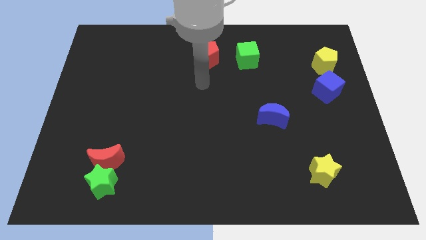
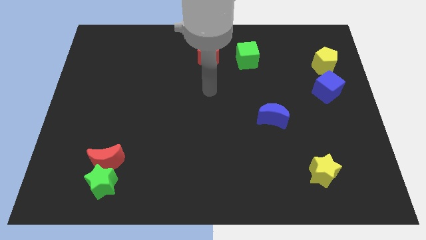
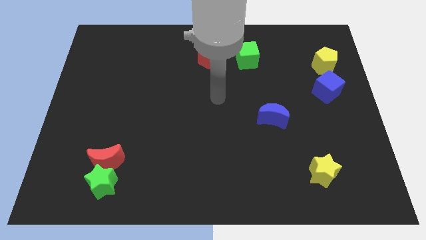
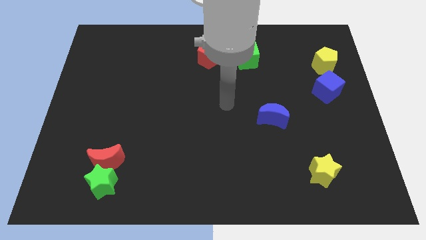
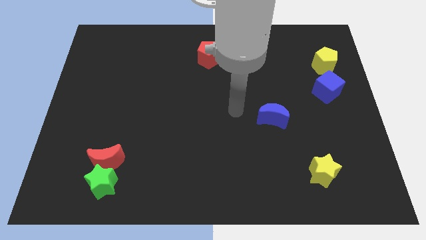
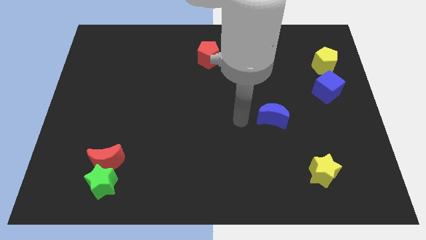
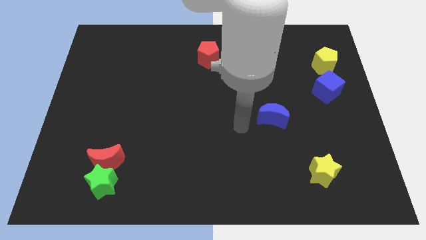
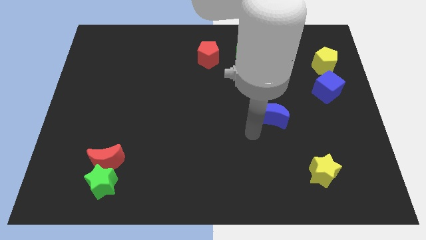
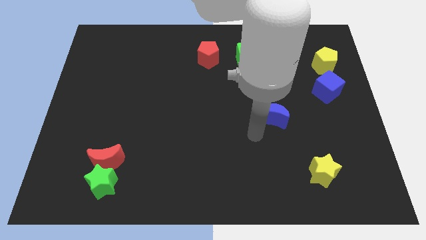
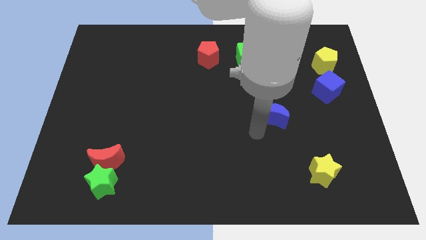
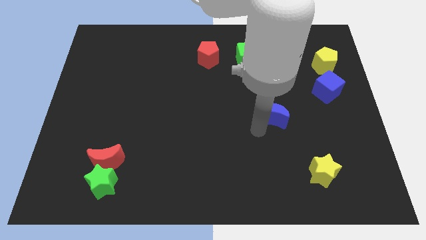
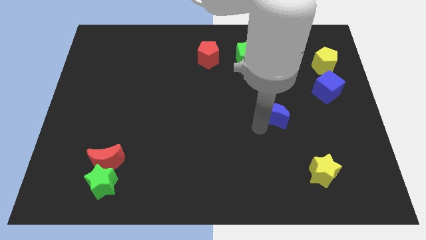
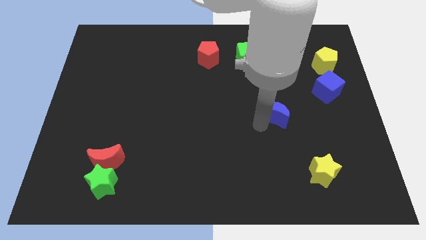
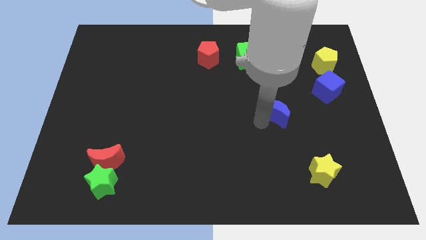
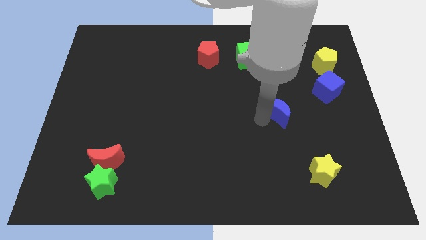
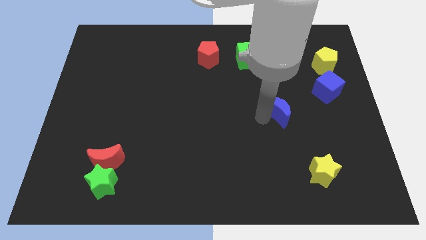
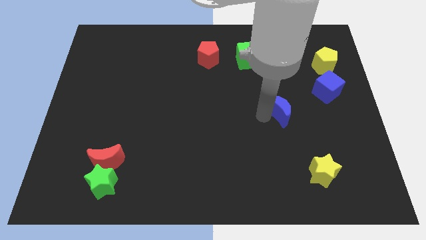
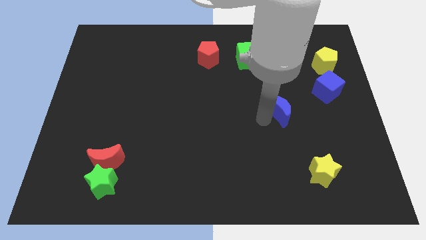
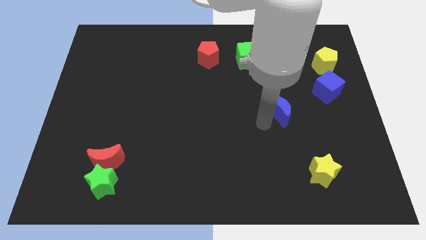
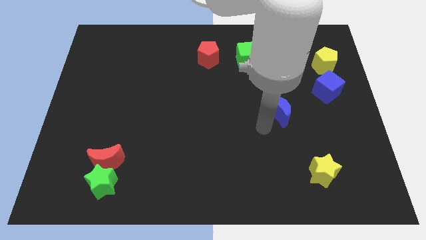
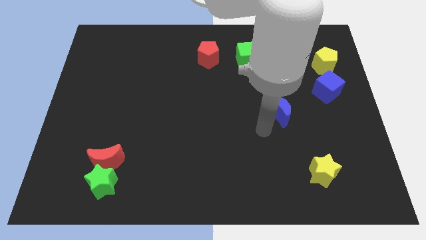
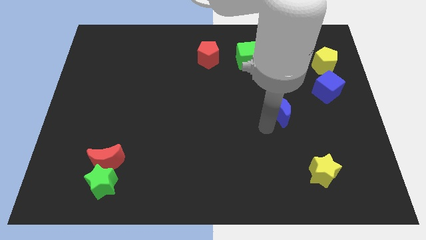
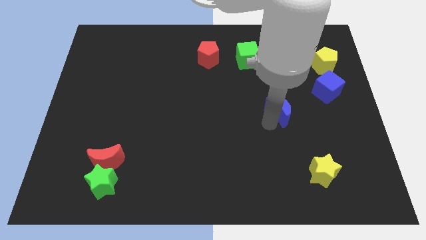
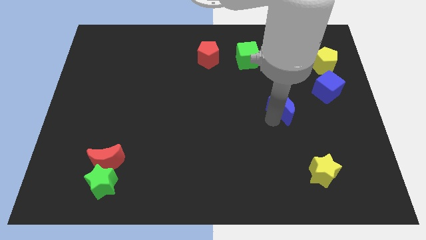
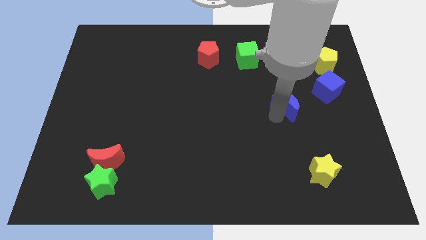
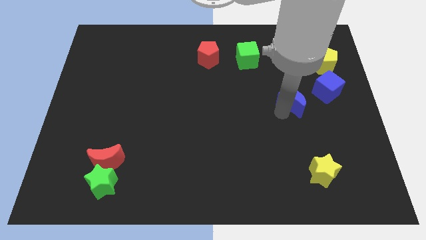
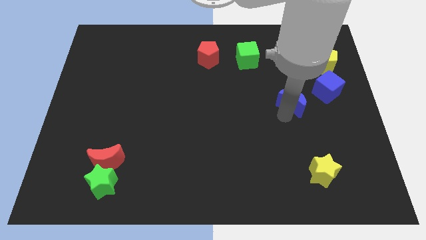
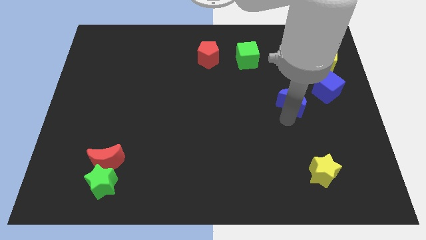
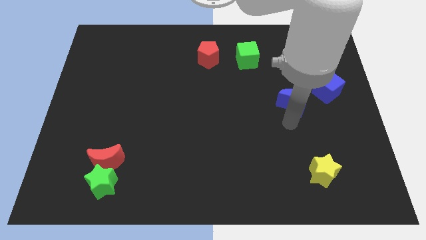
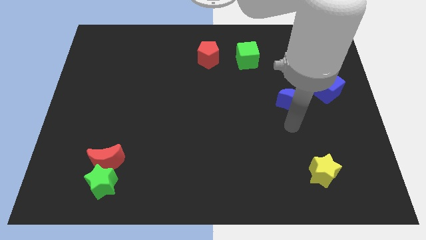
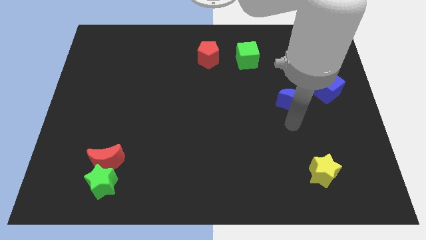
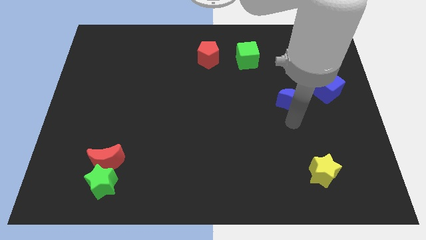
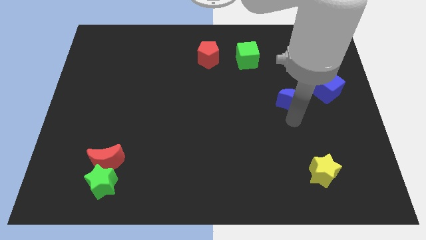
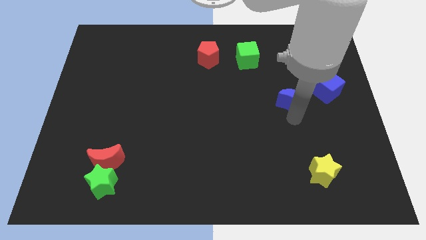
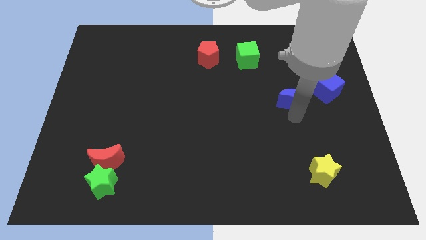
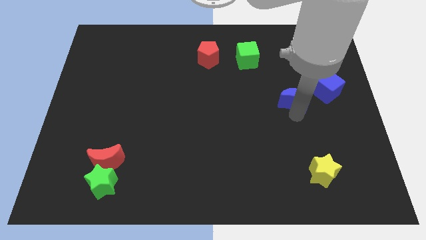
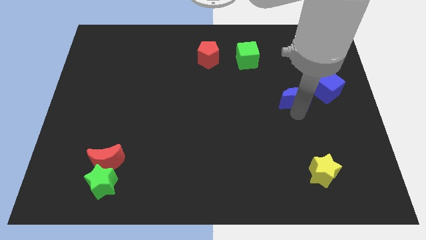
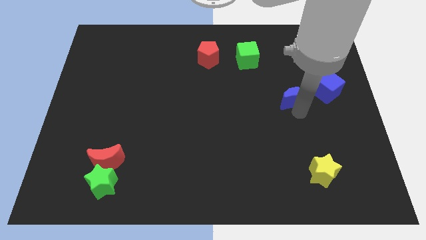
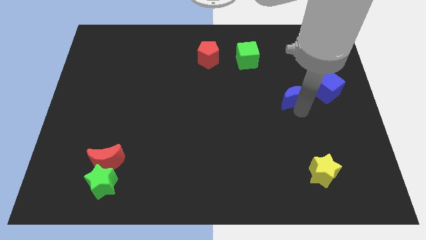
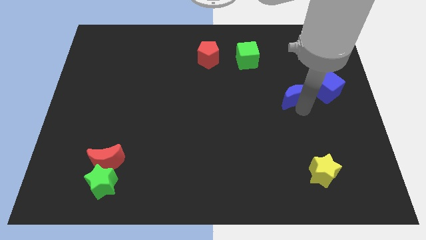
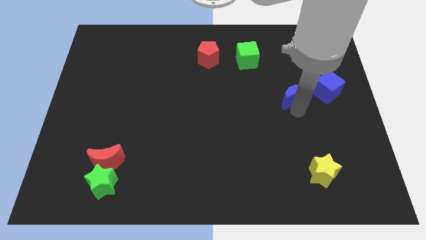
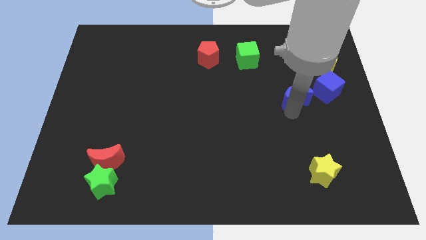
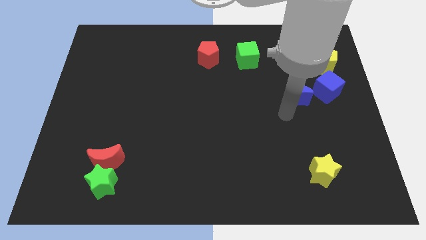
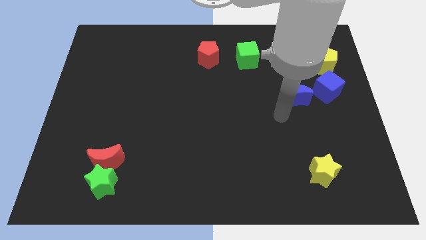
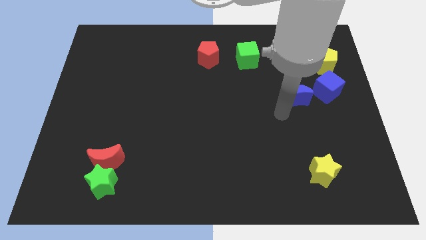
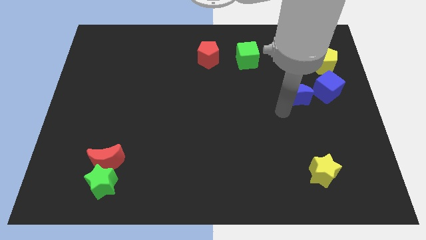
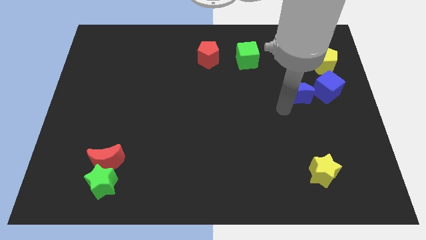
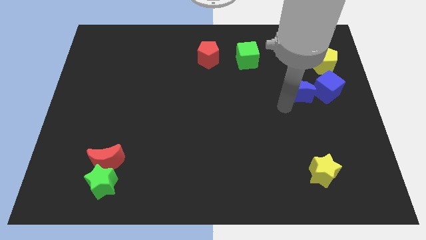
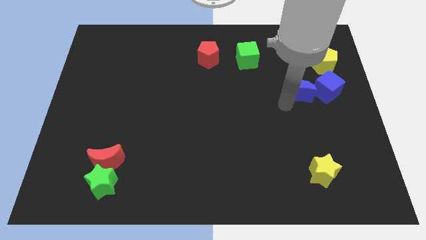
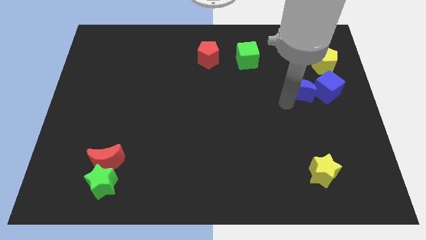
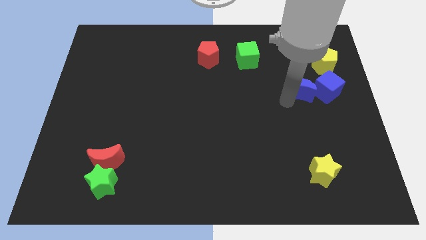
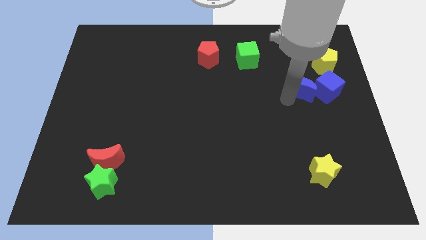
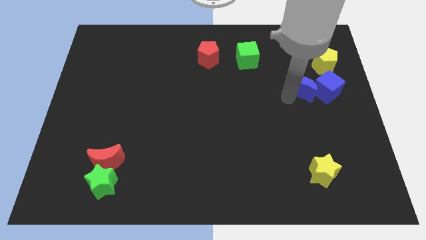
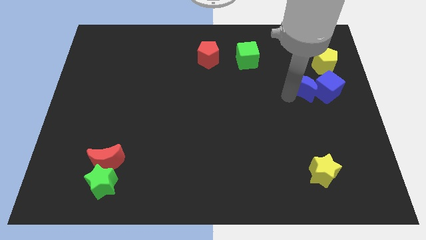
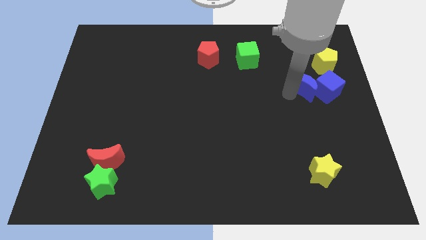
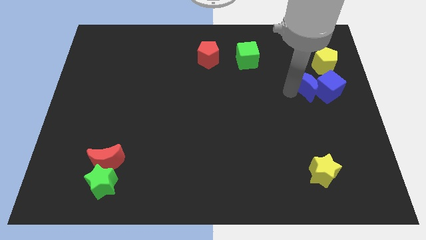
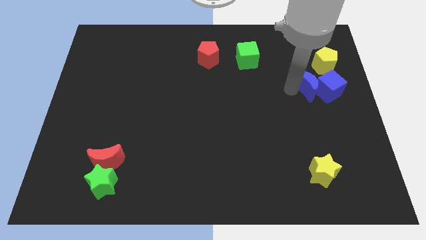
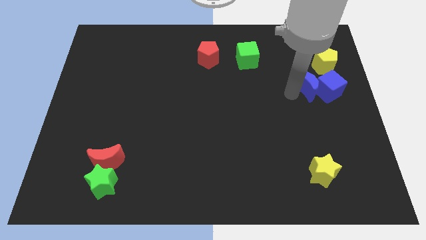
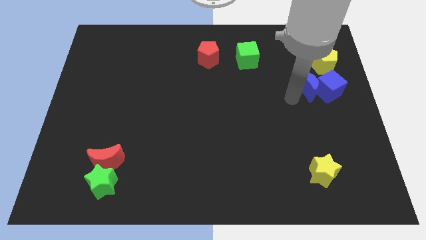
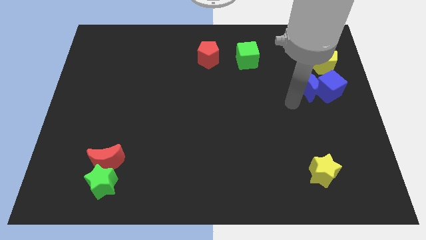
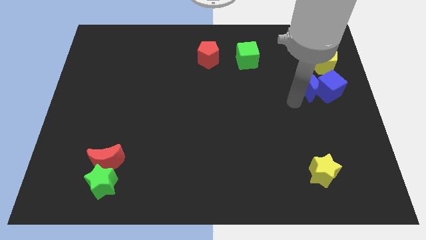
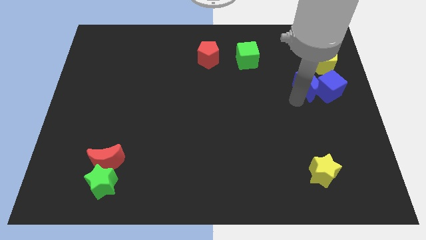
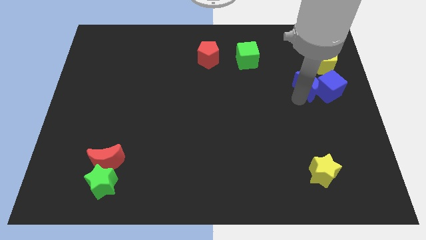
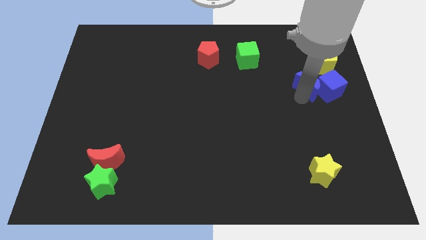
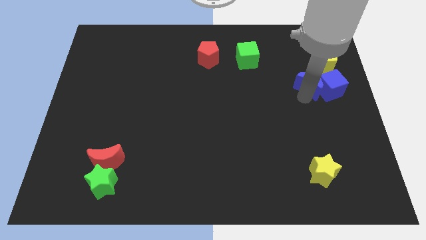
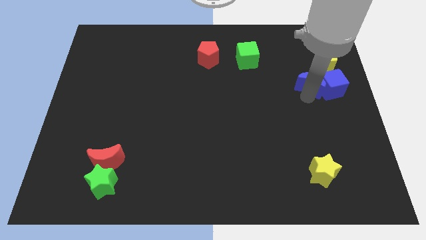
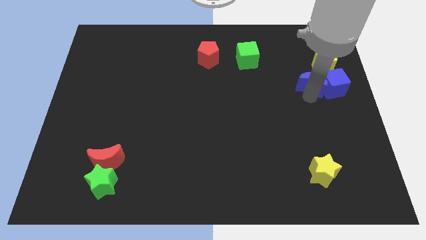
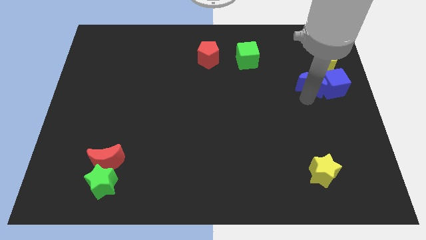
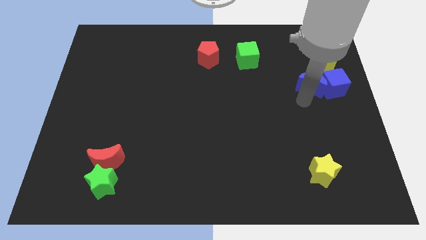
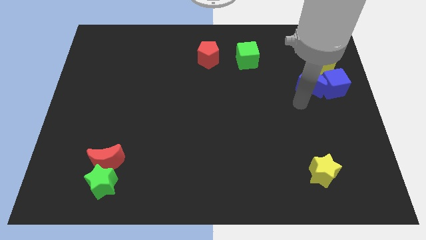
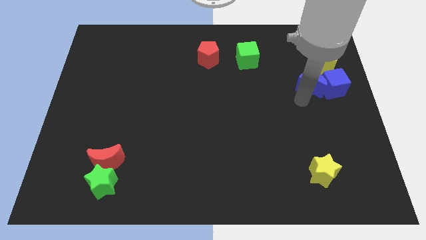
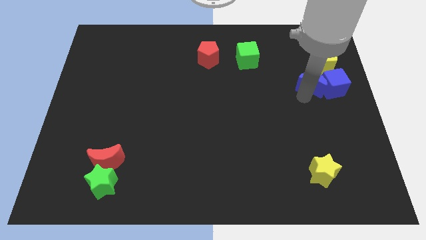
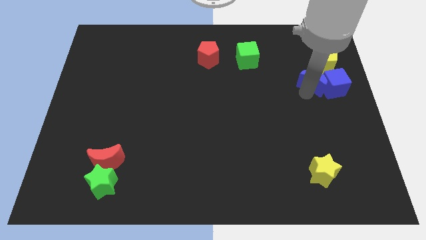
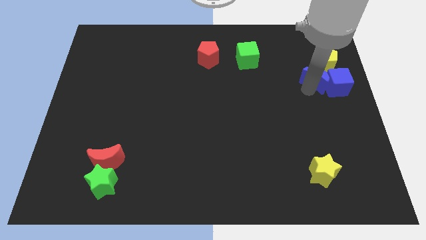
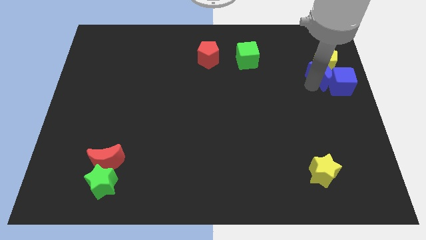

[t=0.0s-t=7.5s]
slide the blue moon to the yellow pentagon
